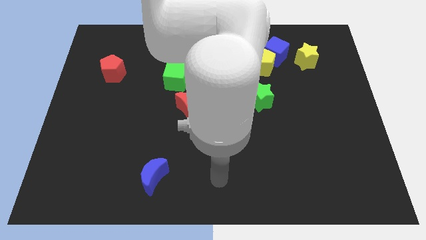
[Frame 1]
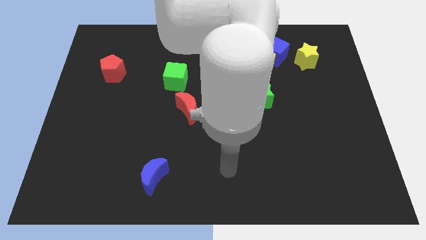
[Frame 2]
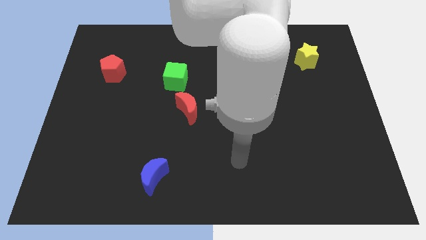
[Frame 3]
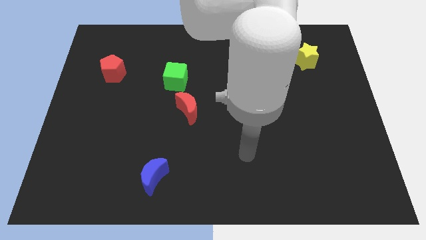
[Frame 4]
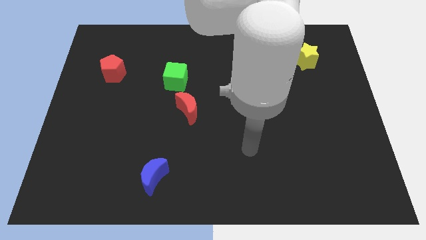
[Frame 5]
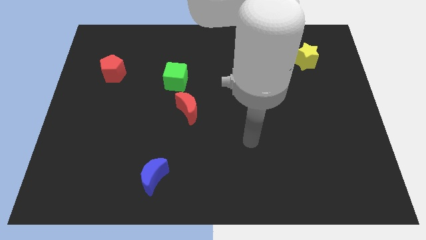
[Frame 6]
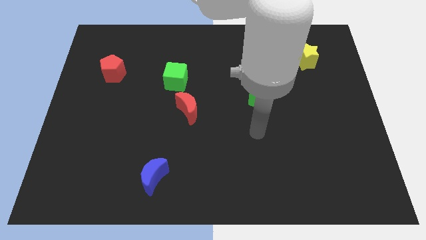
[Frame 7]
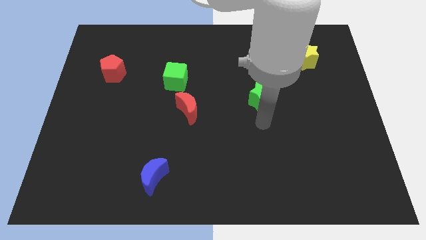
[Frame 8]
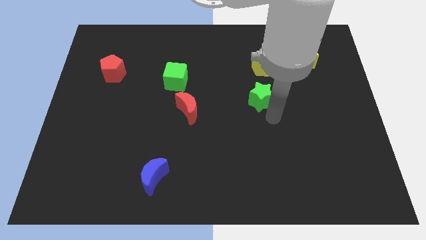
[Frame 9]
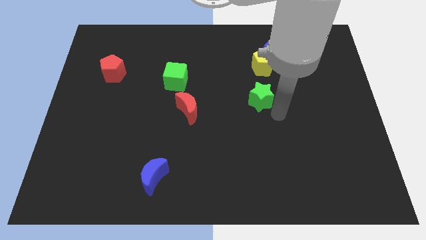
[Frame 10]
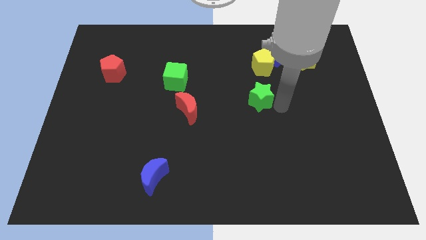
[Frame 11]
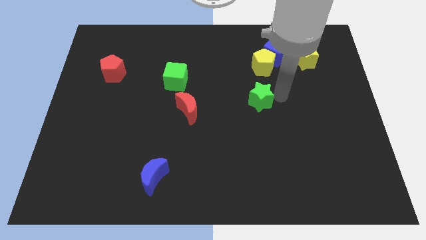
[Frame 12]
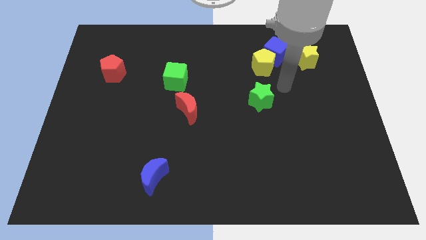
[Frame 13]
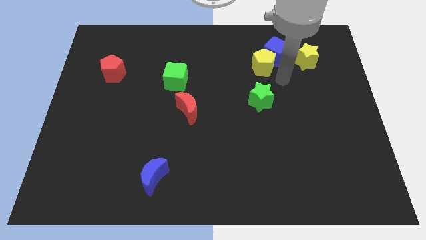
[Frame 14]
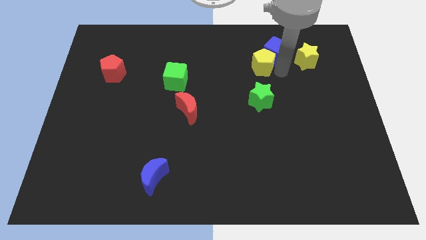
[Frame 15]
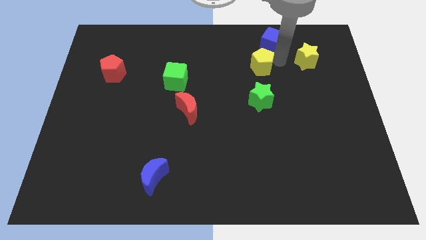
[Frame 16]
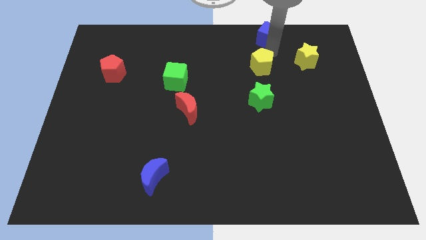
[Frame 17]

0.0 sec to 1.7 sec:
pull the yellow pentagon apart from the blue cube

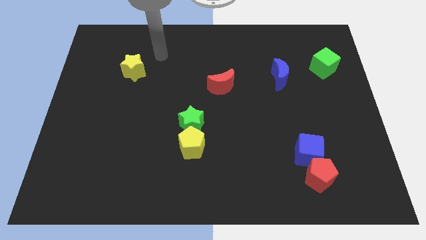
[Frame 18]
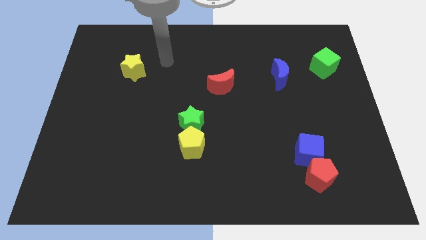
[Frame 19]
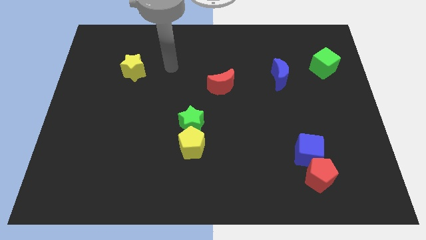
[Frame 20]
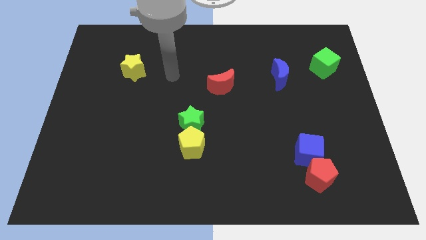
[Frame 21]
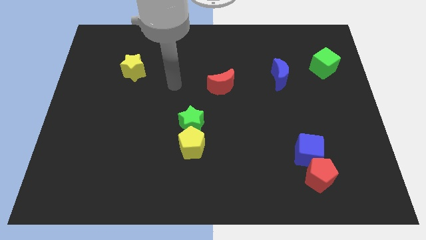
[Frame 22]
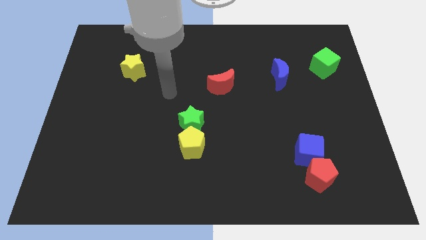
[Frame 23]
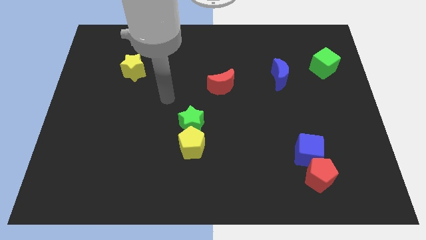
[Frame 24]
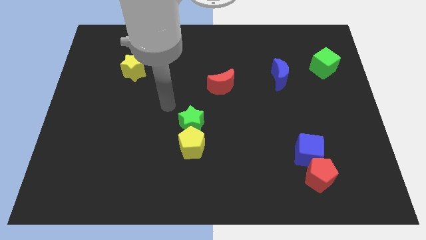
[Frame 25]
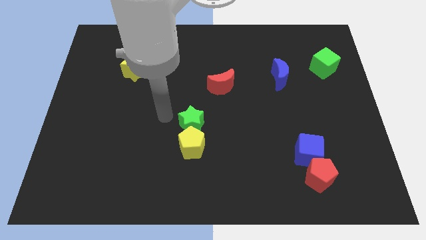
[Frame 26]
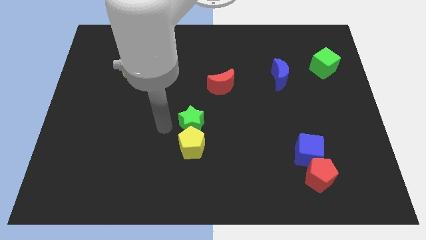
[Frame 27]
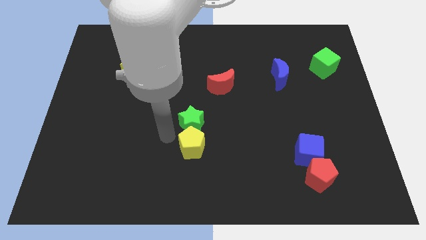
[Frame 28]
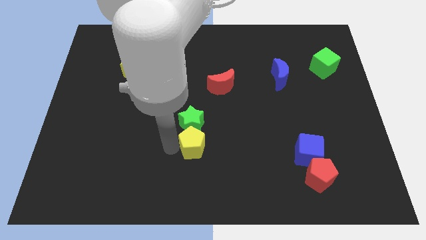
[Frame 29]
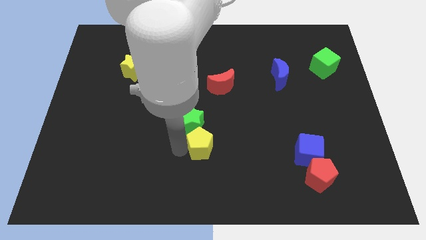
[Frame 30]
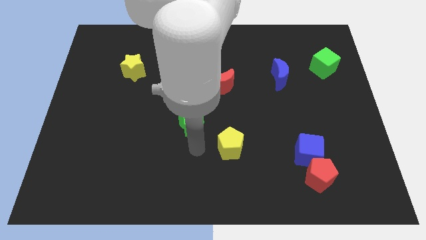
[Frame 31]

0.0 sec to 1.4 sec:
move the green star away from the yellow pentagon

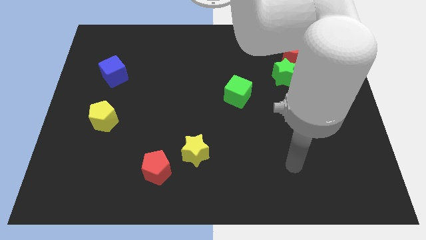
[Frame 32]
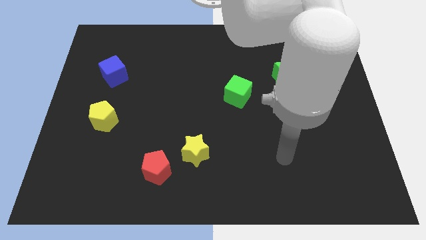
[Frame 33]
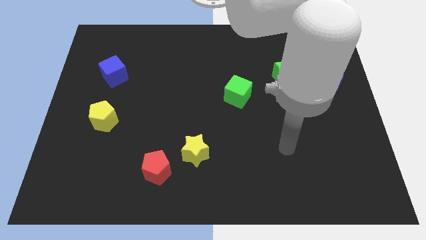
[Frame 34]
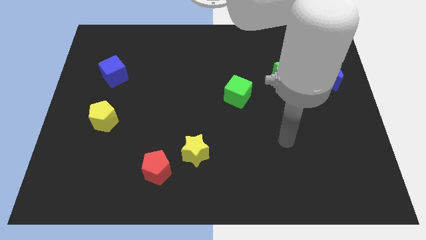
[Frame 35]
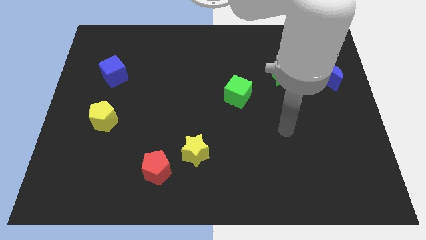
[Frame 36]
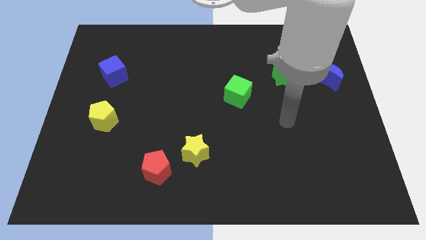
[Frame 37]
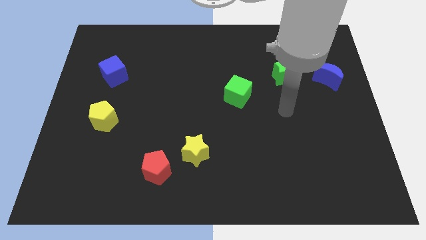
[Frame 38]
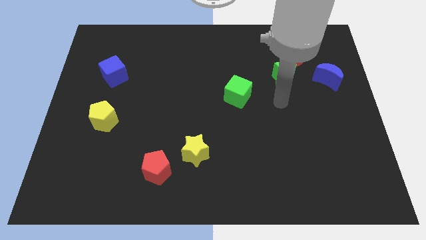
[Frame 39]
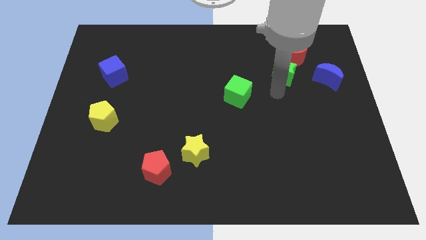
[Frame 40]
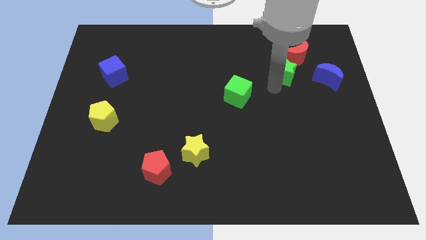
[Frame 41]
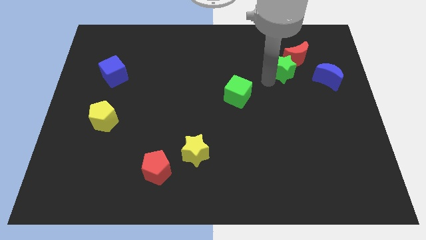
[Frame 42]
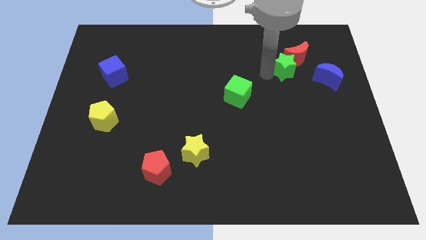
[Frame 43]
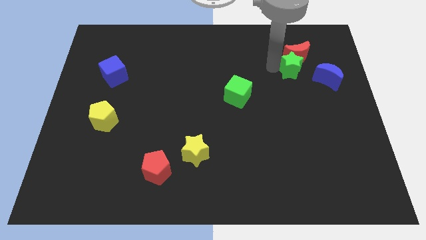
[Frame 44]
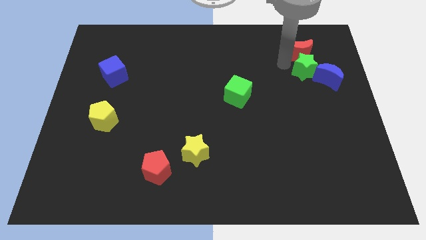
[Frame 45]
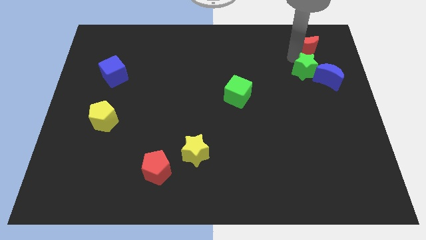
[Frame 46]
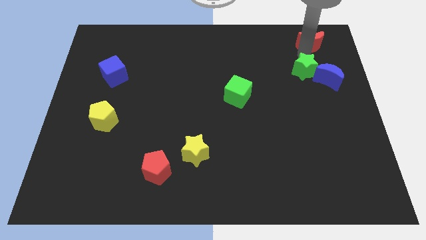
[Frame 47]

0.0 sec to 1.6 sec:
pull the green star apart from the red moon

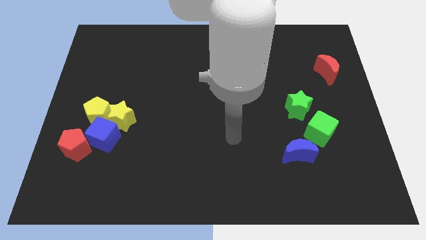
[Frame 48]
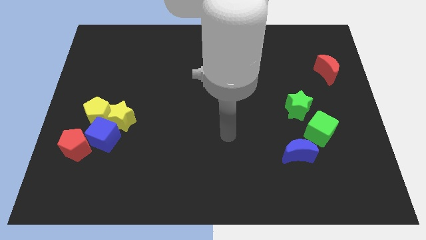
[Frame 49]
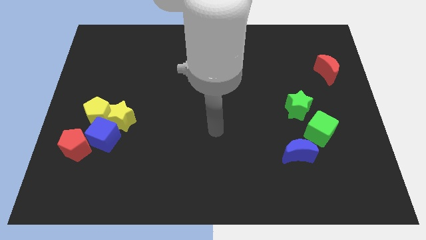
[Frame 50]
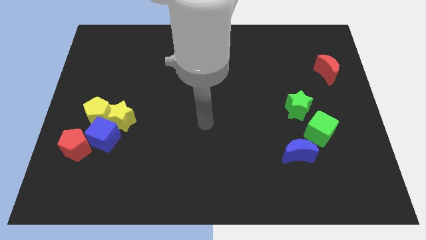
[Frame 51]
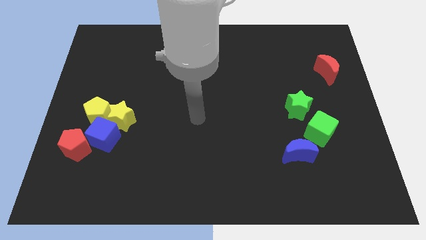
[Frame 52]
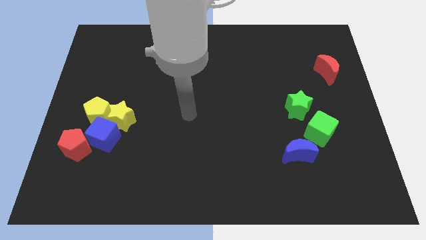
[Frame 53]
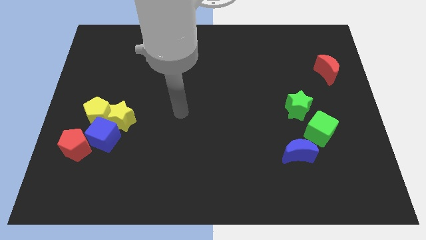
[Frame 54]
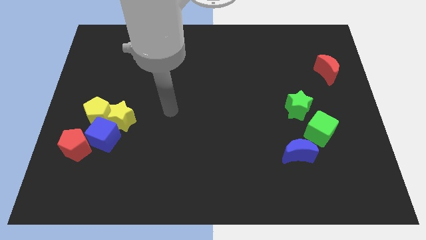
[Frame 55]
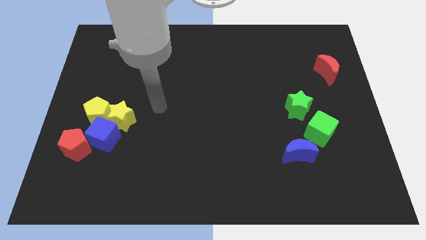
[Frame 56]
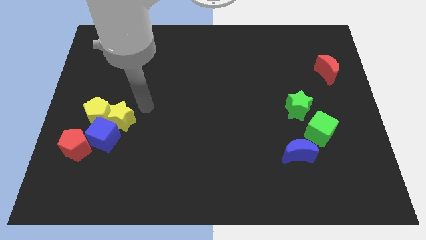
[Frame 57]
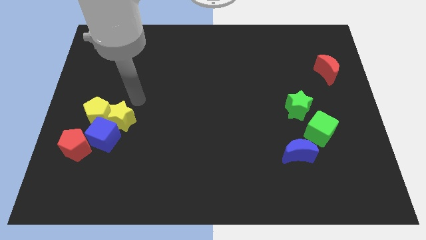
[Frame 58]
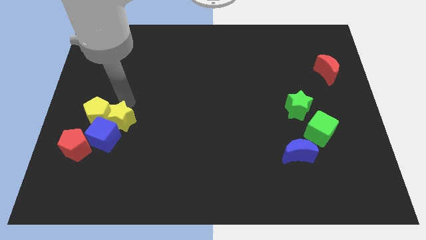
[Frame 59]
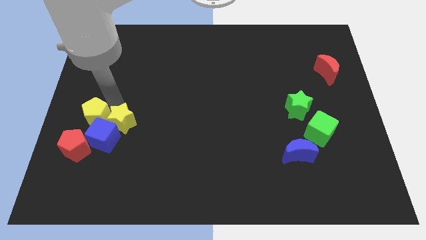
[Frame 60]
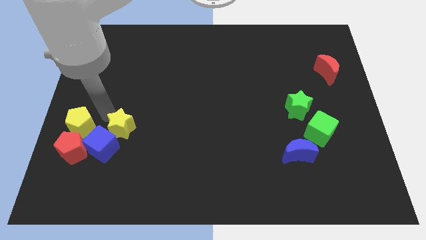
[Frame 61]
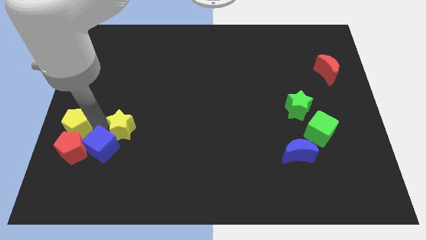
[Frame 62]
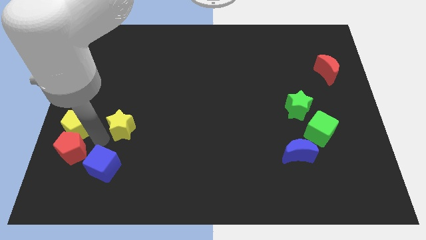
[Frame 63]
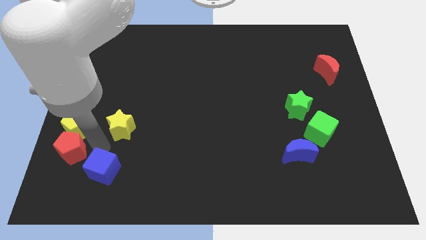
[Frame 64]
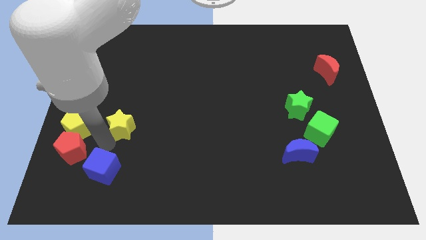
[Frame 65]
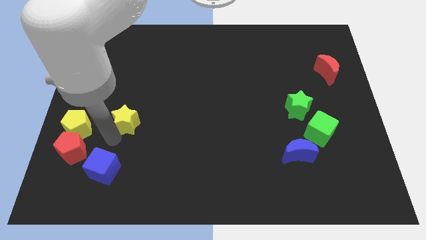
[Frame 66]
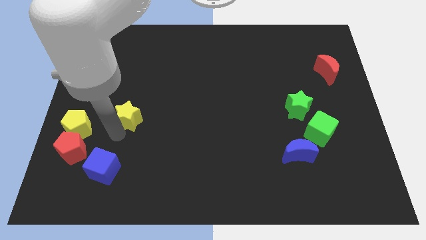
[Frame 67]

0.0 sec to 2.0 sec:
move the yellow star away from the yellow pentagon and blue cube

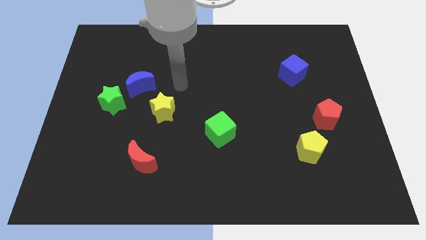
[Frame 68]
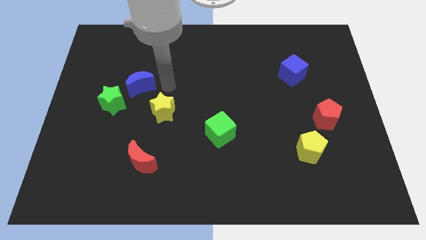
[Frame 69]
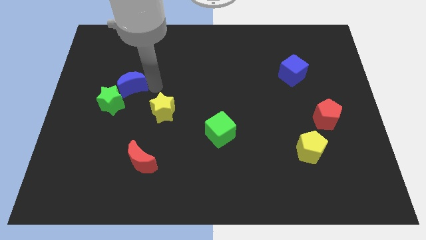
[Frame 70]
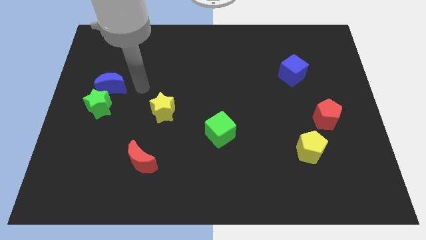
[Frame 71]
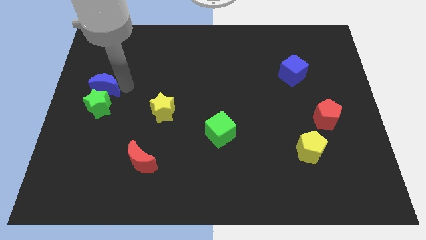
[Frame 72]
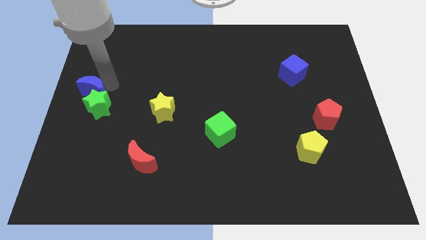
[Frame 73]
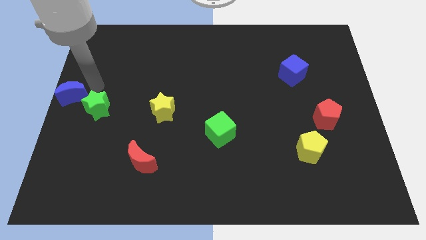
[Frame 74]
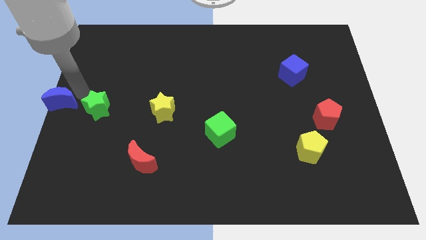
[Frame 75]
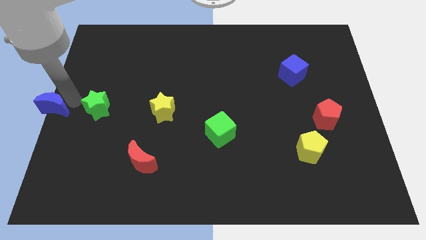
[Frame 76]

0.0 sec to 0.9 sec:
pull the green star apart from the blue moon

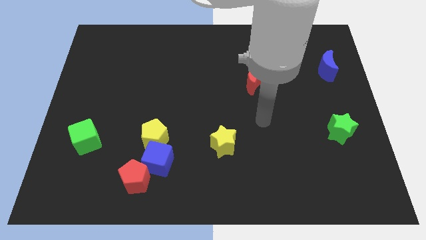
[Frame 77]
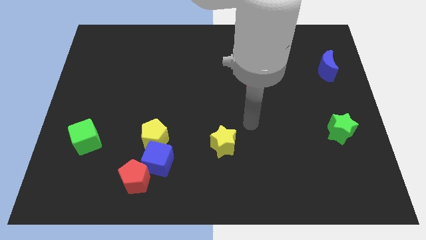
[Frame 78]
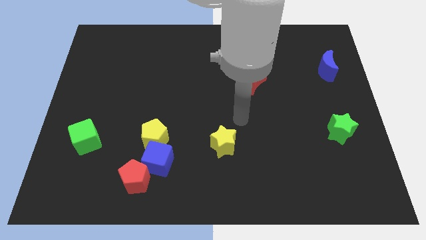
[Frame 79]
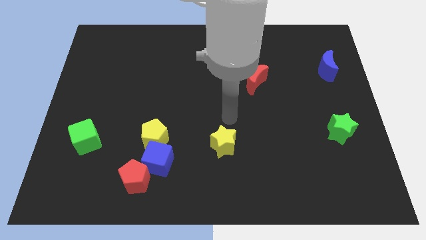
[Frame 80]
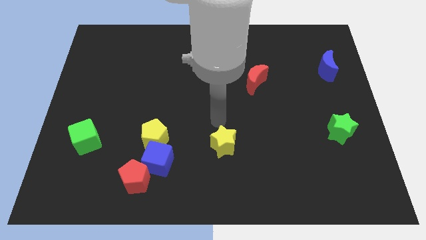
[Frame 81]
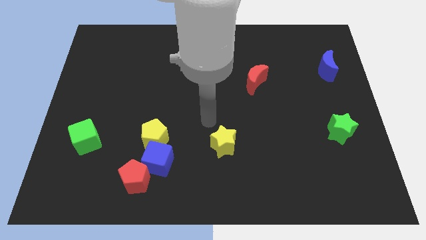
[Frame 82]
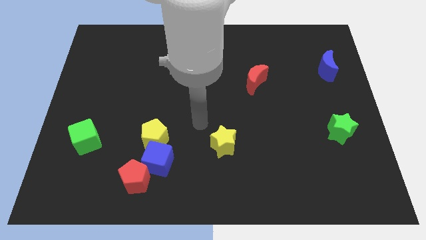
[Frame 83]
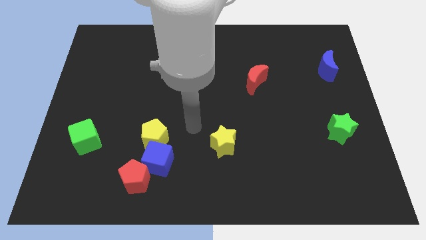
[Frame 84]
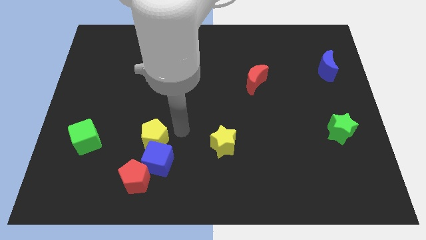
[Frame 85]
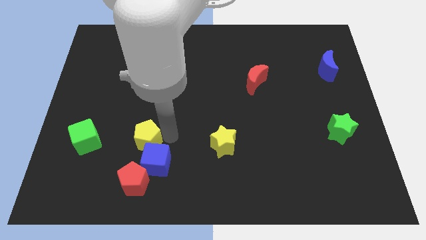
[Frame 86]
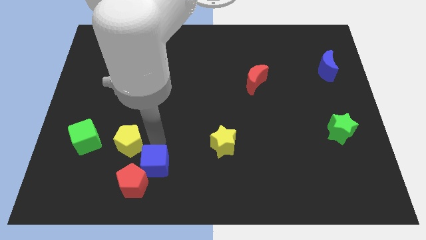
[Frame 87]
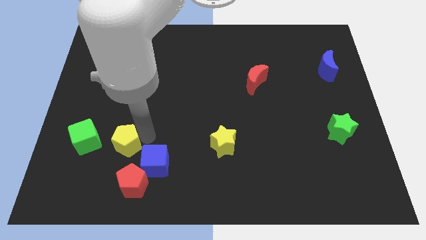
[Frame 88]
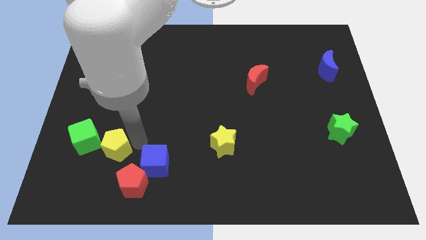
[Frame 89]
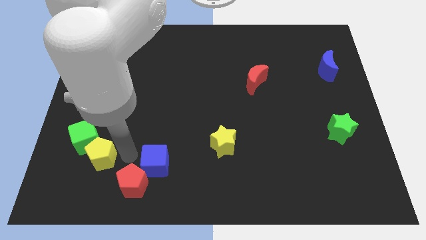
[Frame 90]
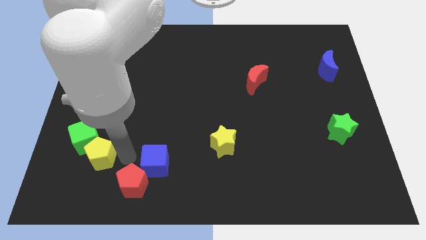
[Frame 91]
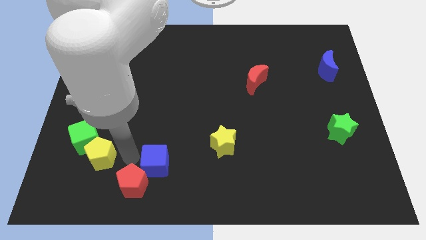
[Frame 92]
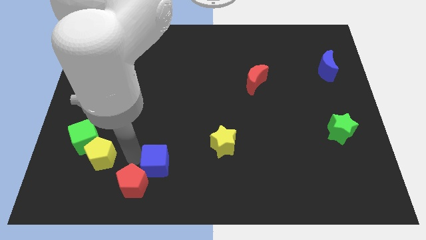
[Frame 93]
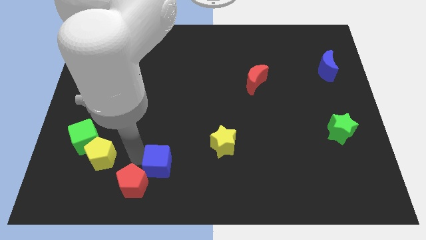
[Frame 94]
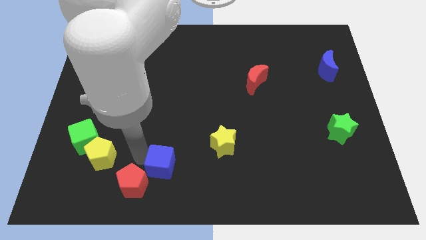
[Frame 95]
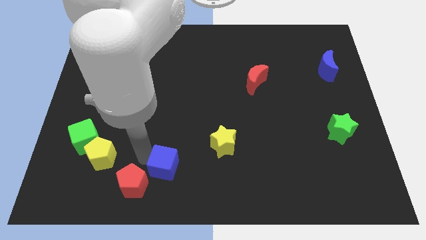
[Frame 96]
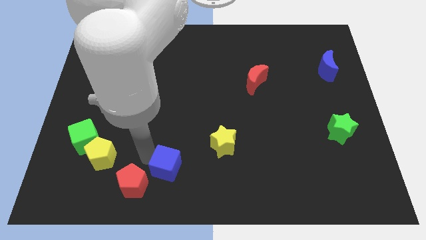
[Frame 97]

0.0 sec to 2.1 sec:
separate the blue cube from the yellow pentagon and red pentagon
